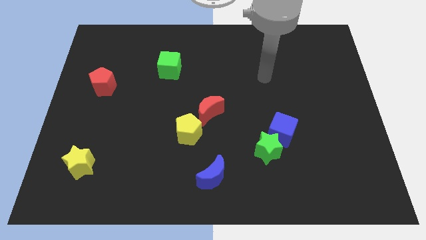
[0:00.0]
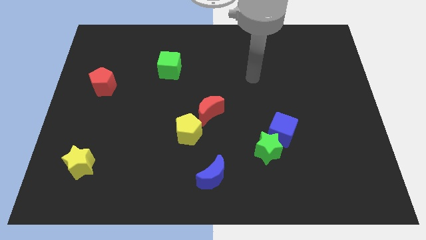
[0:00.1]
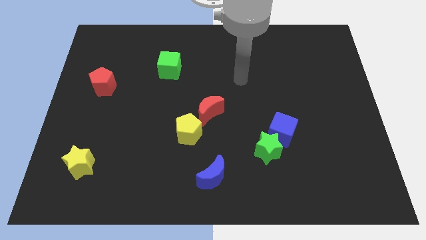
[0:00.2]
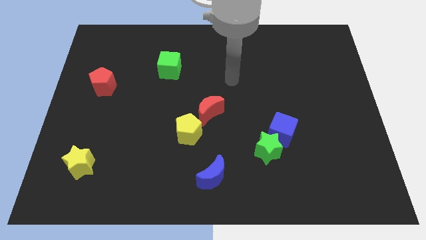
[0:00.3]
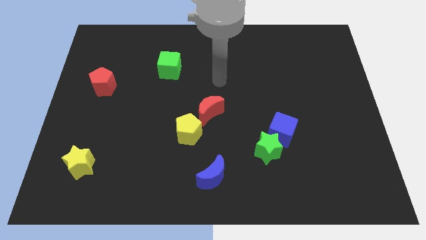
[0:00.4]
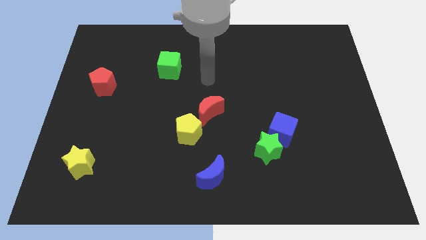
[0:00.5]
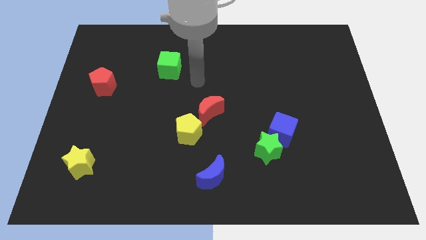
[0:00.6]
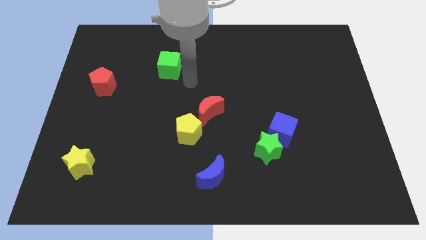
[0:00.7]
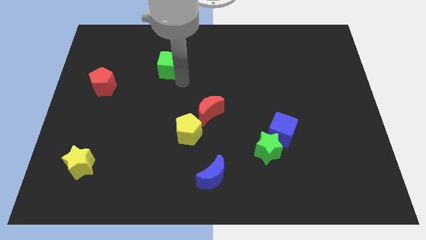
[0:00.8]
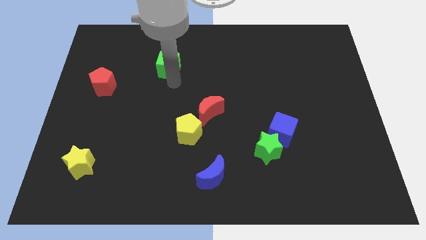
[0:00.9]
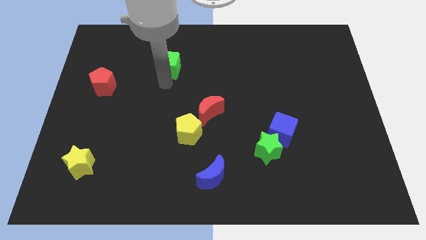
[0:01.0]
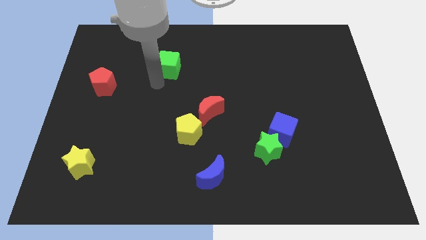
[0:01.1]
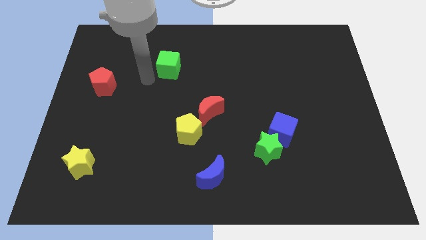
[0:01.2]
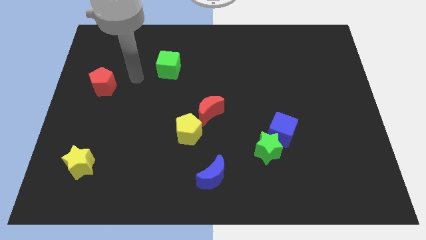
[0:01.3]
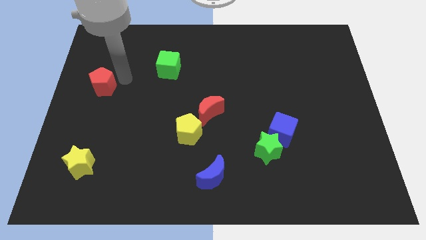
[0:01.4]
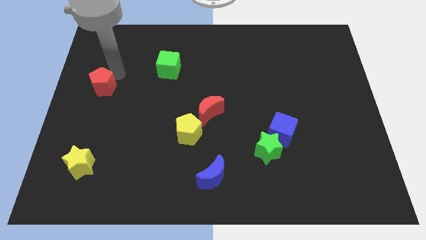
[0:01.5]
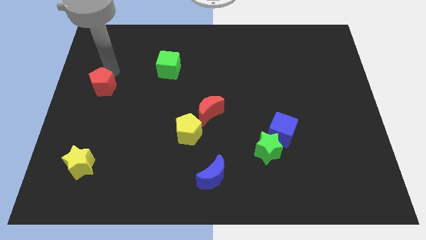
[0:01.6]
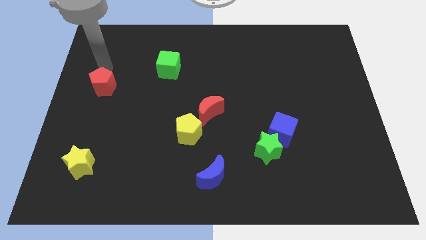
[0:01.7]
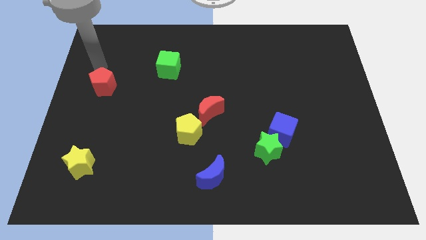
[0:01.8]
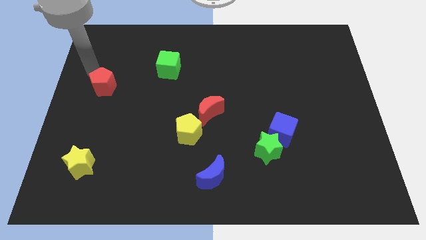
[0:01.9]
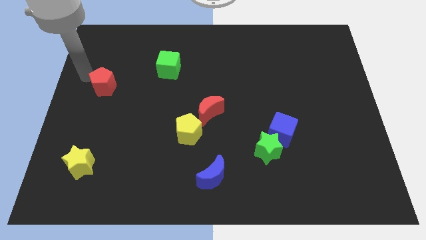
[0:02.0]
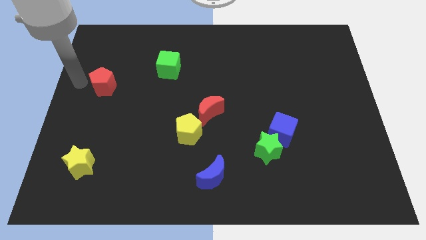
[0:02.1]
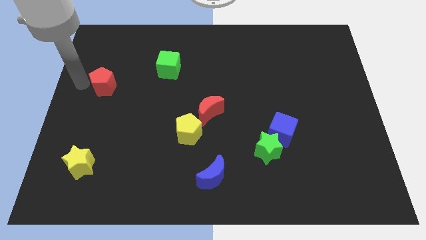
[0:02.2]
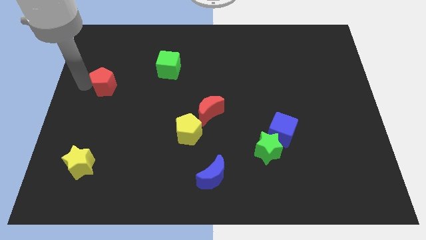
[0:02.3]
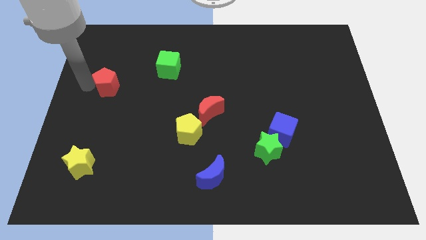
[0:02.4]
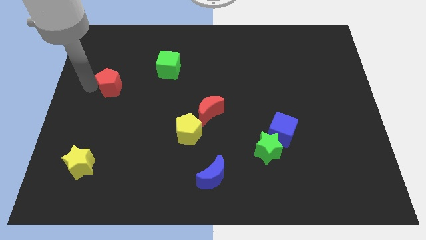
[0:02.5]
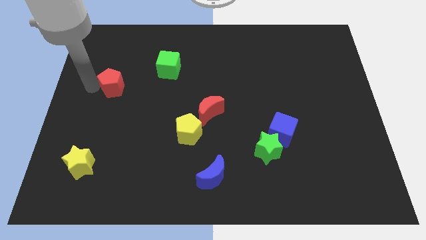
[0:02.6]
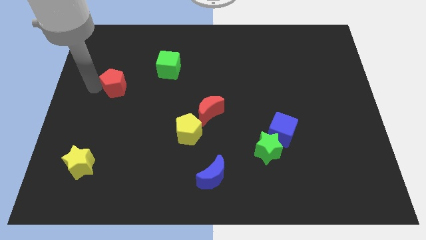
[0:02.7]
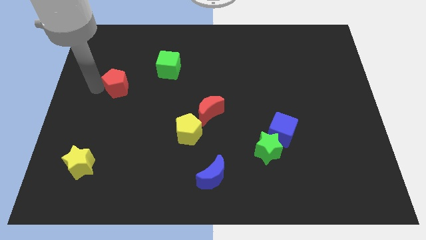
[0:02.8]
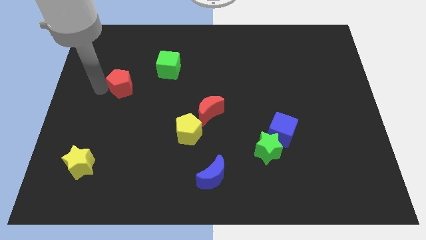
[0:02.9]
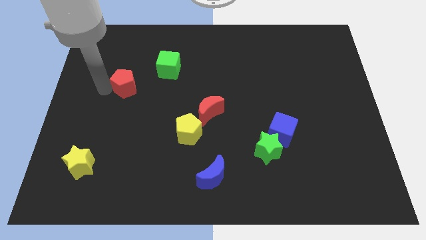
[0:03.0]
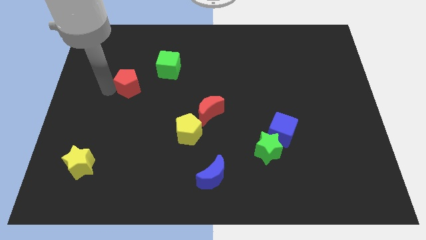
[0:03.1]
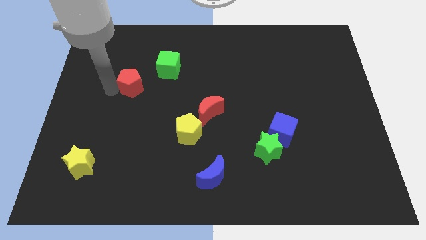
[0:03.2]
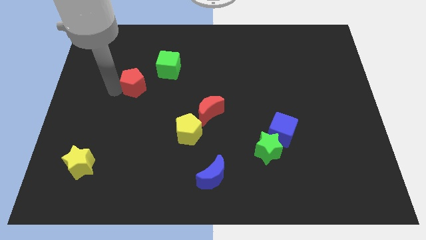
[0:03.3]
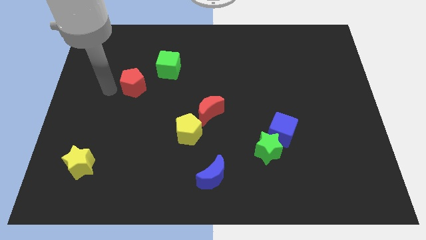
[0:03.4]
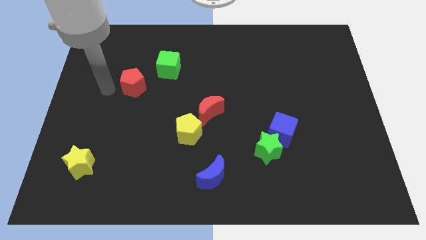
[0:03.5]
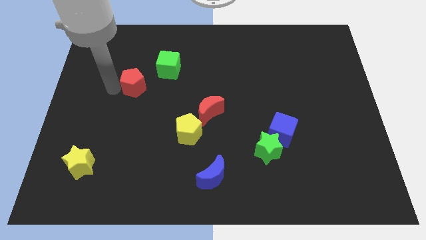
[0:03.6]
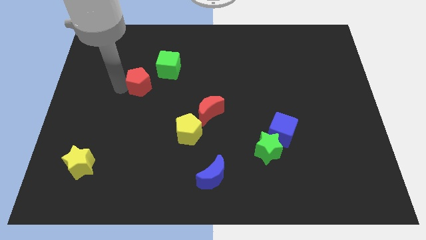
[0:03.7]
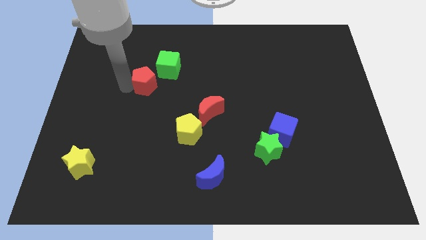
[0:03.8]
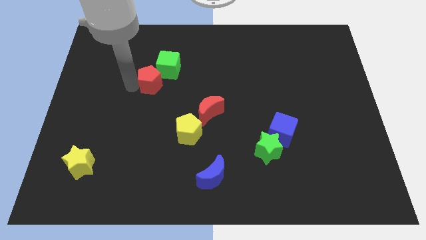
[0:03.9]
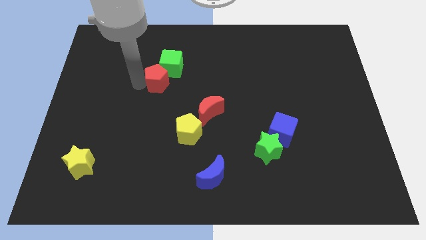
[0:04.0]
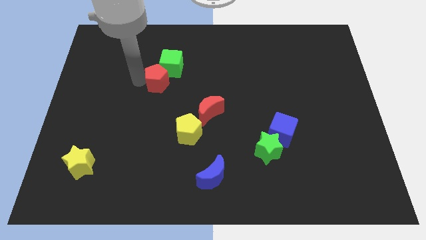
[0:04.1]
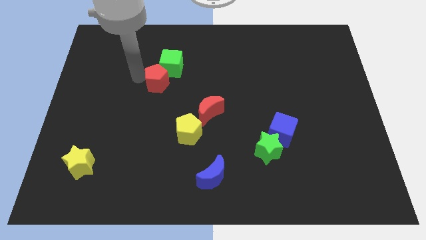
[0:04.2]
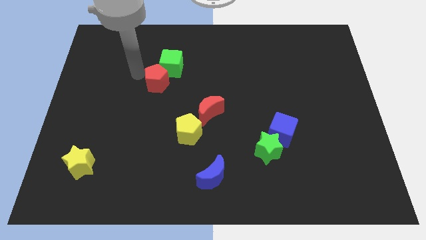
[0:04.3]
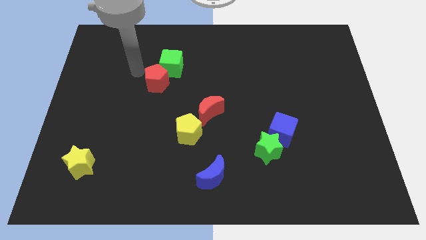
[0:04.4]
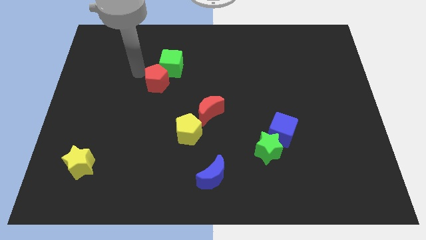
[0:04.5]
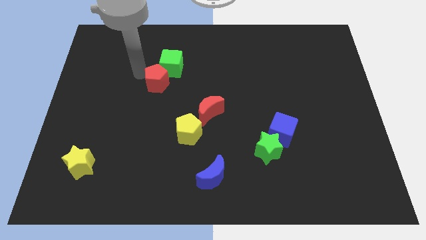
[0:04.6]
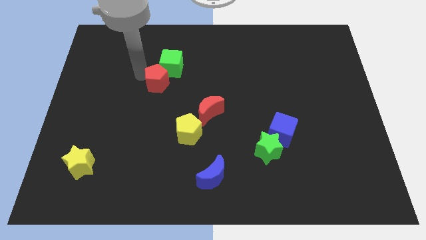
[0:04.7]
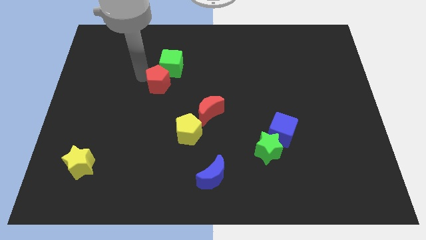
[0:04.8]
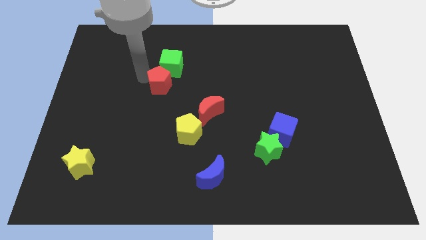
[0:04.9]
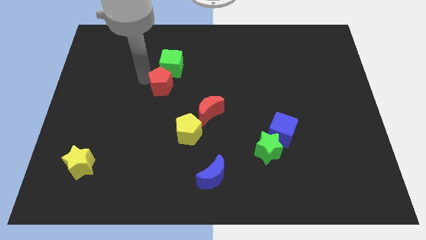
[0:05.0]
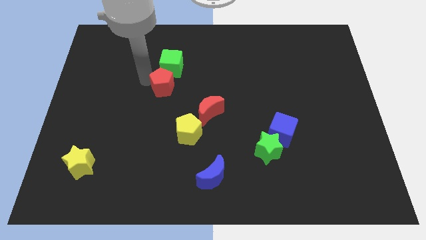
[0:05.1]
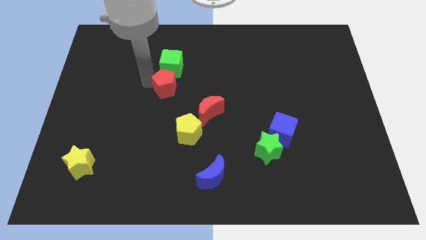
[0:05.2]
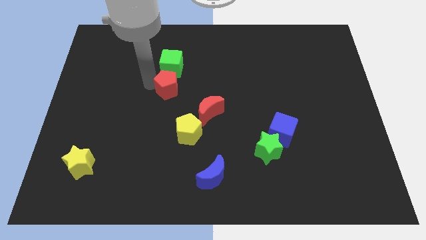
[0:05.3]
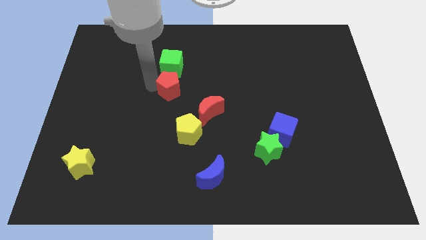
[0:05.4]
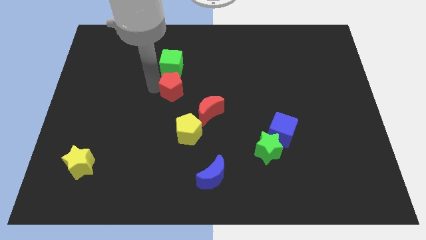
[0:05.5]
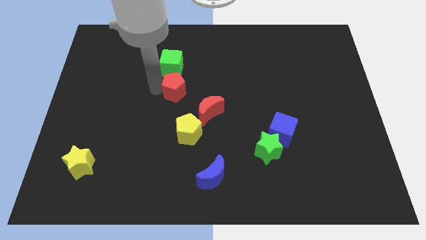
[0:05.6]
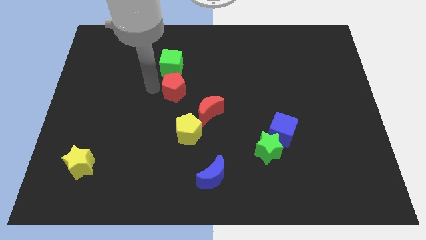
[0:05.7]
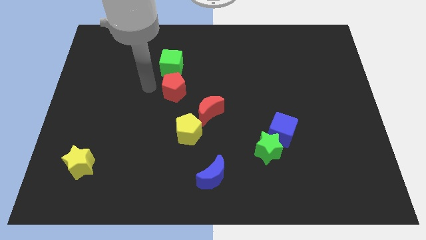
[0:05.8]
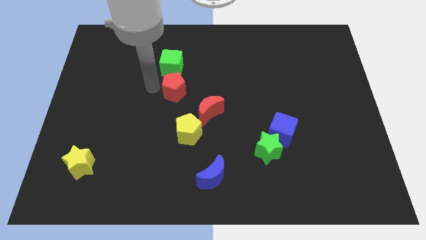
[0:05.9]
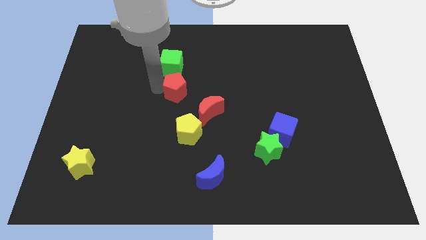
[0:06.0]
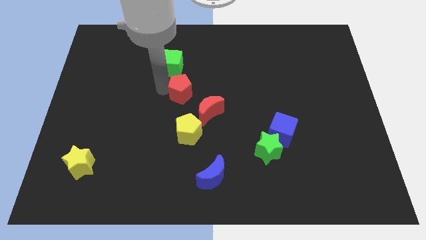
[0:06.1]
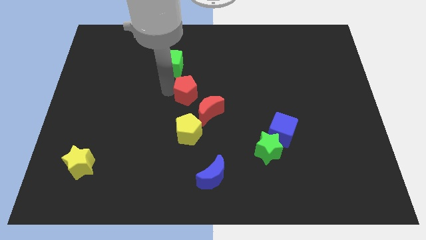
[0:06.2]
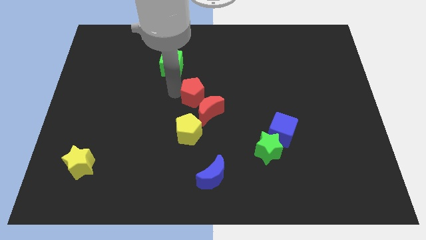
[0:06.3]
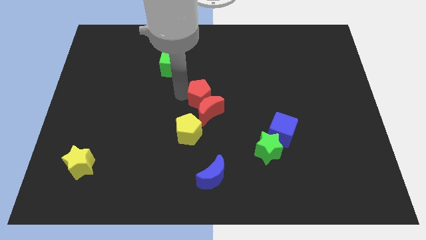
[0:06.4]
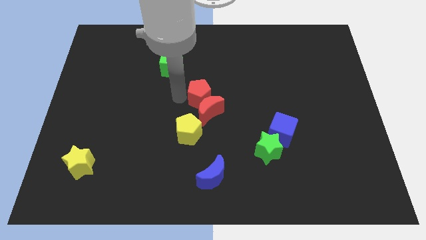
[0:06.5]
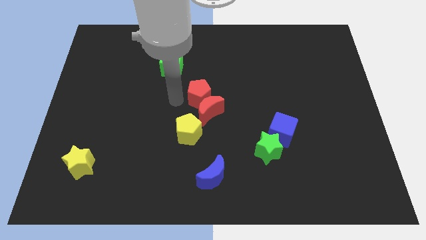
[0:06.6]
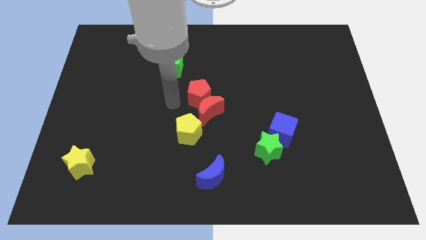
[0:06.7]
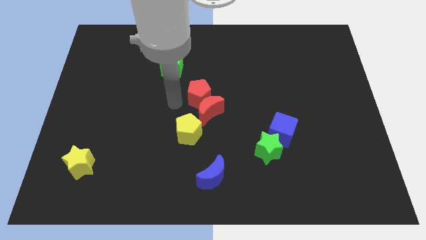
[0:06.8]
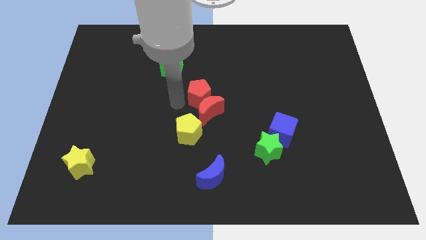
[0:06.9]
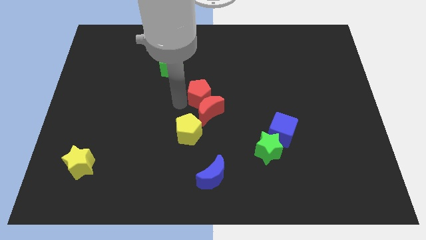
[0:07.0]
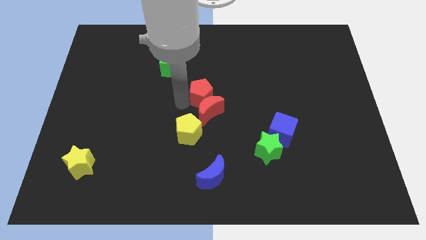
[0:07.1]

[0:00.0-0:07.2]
slide the red pentagon to the top right side of the red moon
